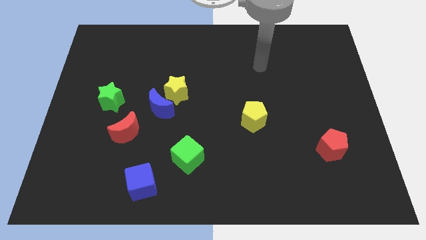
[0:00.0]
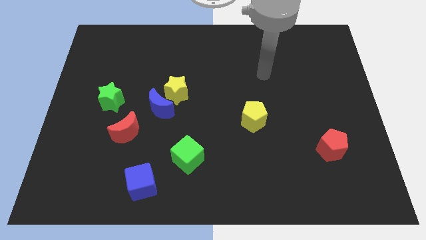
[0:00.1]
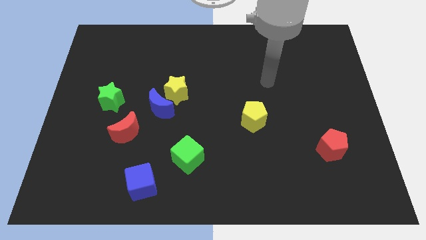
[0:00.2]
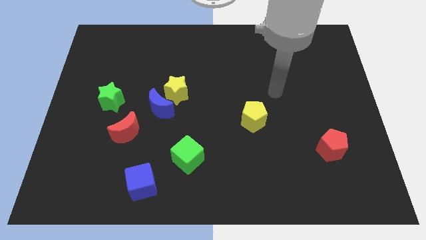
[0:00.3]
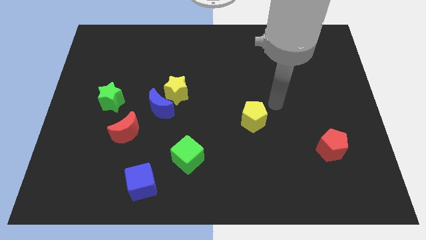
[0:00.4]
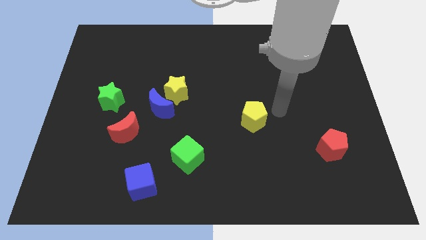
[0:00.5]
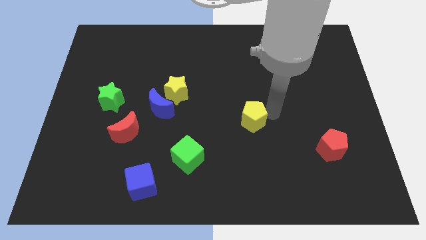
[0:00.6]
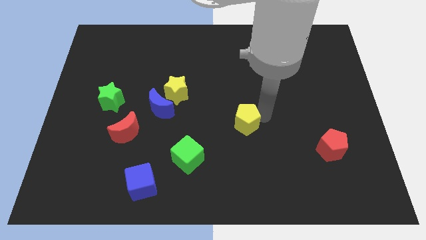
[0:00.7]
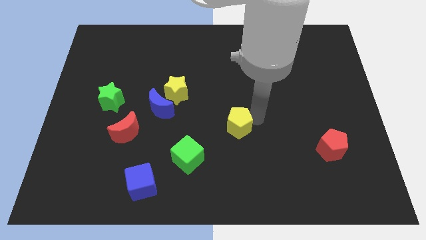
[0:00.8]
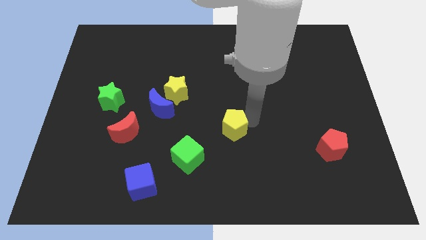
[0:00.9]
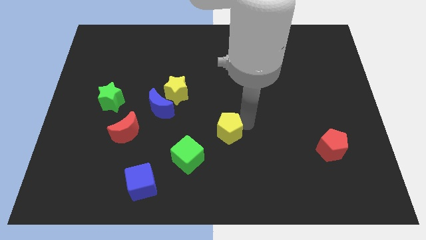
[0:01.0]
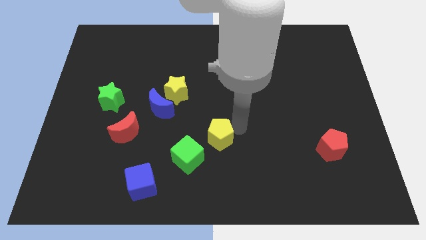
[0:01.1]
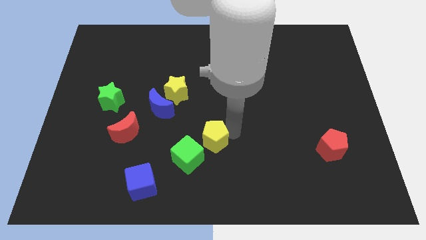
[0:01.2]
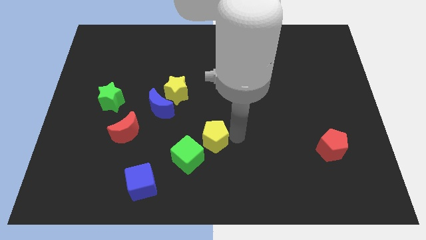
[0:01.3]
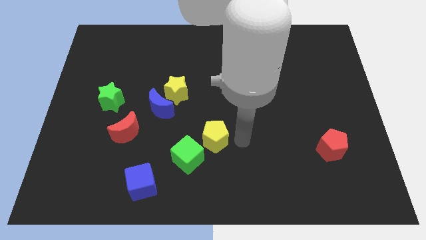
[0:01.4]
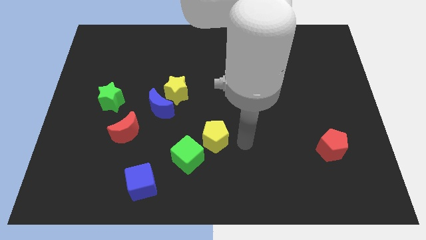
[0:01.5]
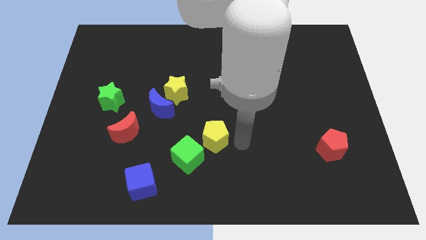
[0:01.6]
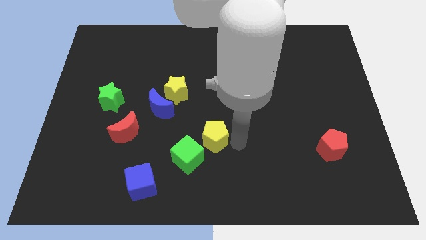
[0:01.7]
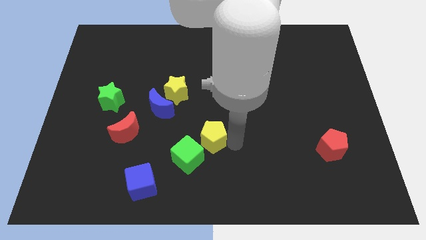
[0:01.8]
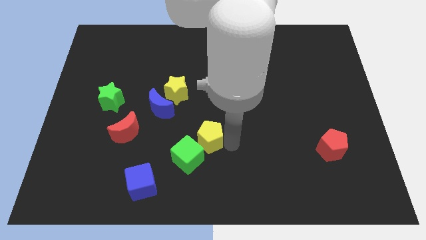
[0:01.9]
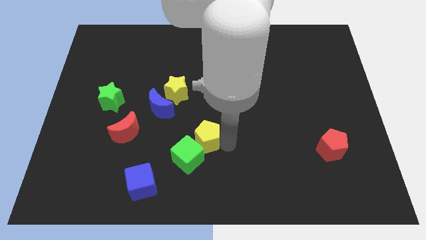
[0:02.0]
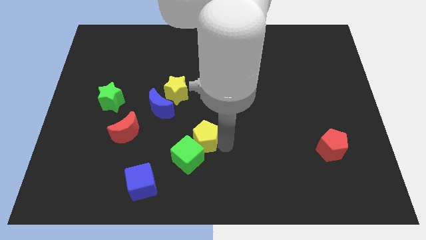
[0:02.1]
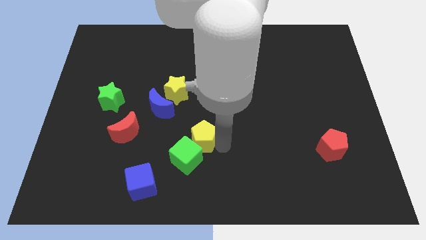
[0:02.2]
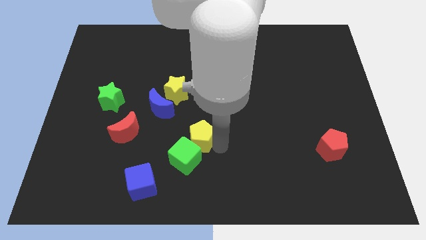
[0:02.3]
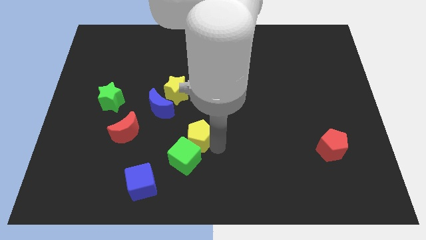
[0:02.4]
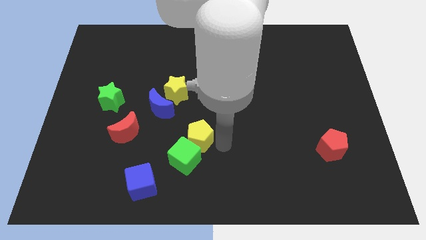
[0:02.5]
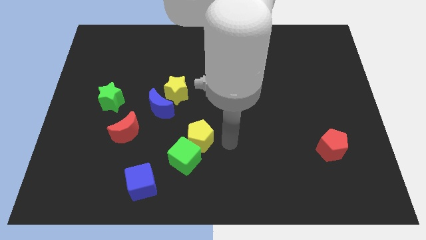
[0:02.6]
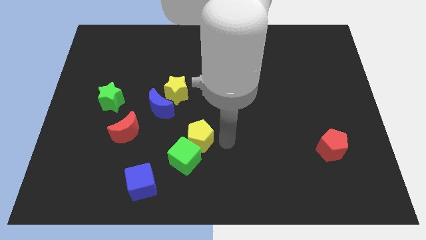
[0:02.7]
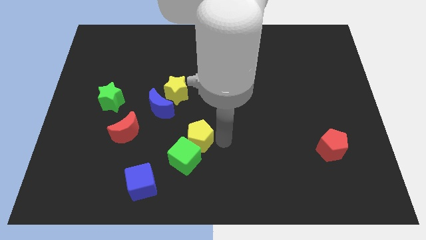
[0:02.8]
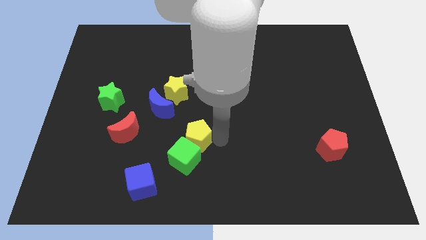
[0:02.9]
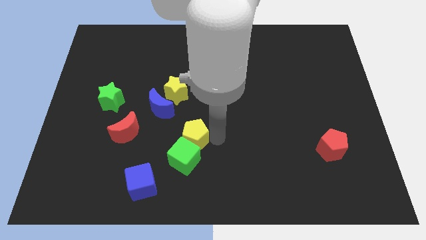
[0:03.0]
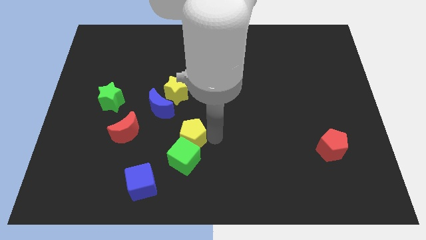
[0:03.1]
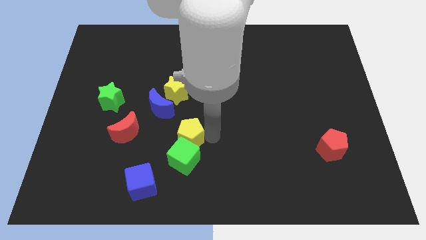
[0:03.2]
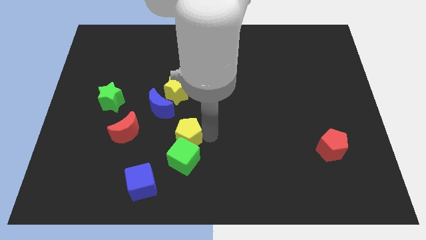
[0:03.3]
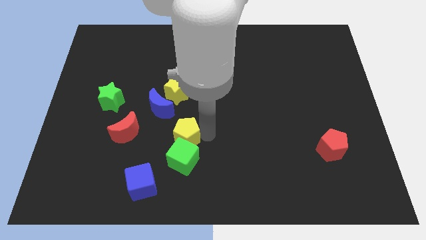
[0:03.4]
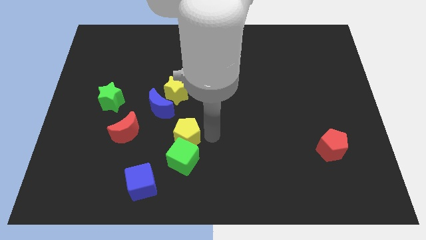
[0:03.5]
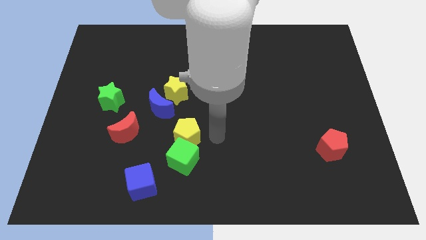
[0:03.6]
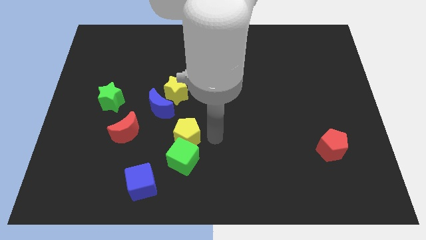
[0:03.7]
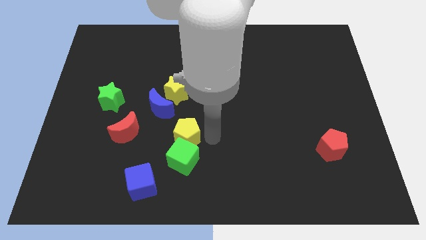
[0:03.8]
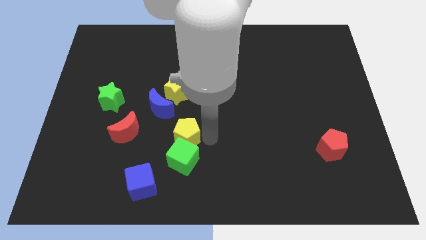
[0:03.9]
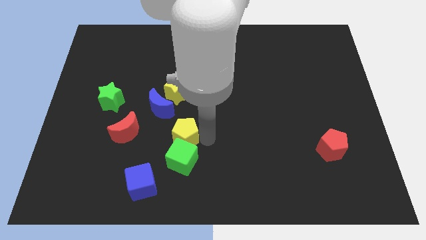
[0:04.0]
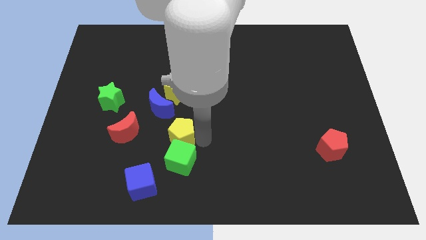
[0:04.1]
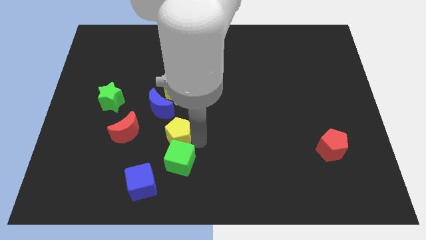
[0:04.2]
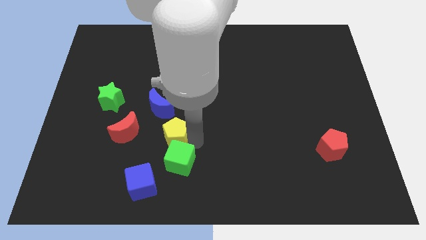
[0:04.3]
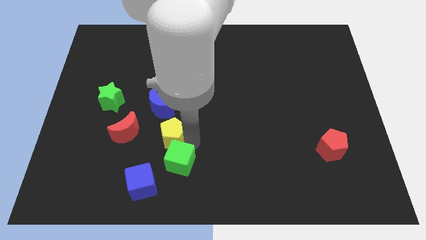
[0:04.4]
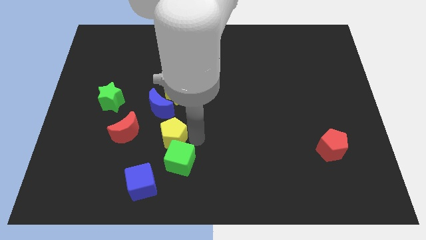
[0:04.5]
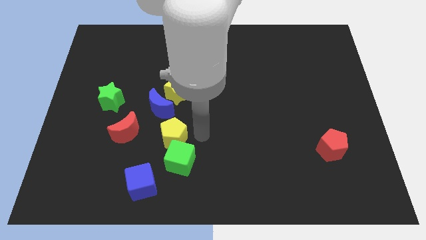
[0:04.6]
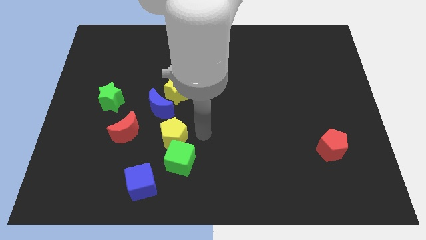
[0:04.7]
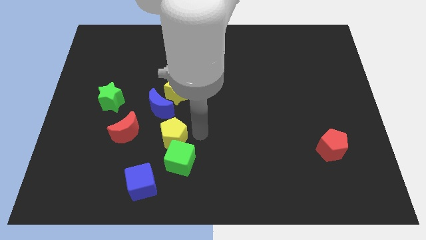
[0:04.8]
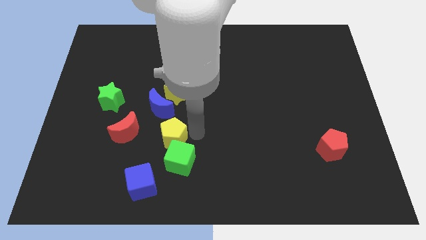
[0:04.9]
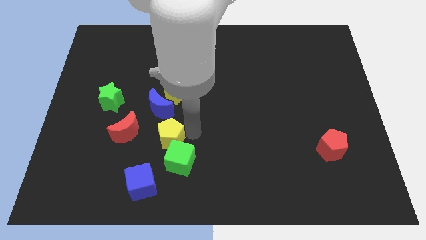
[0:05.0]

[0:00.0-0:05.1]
push the yellow pentagon to the top side of the blue cube

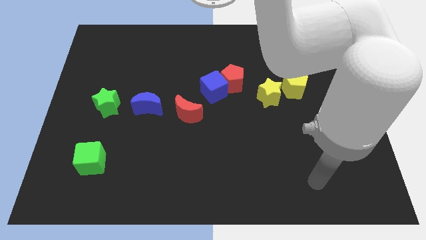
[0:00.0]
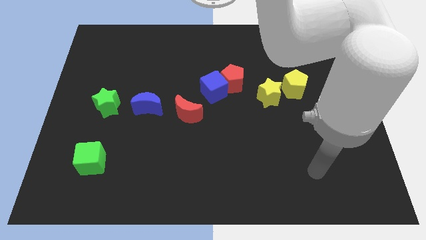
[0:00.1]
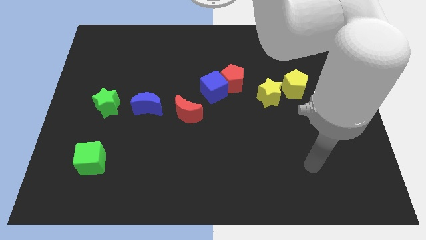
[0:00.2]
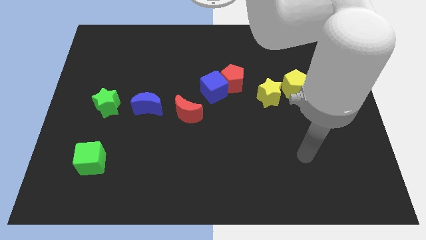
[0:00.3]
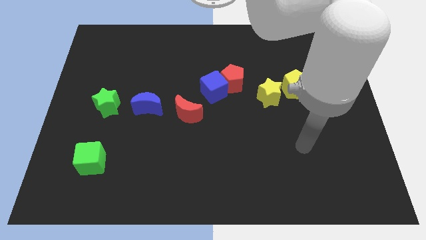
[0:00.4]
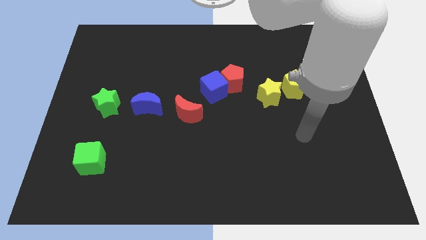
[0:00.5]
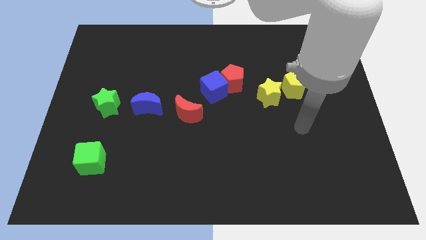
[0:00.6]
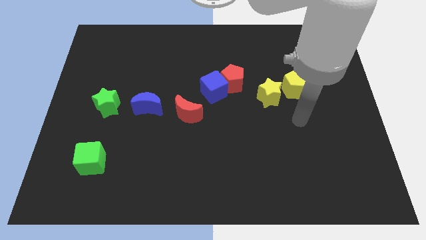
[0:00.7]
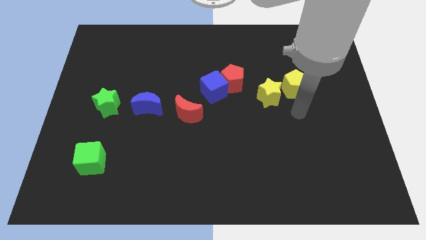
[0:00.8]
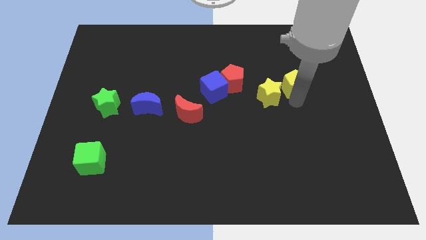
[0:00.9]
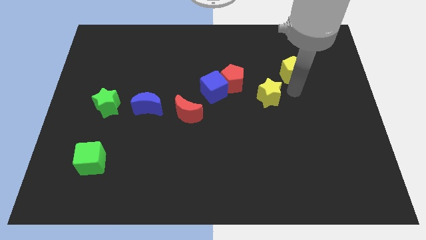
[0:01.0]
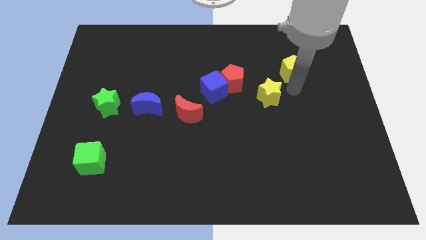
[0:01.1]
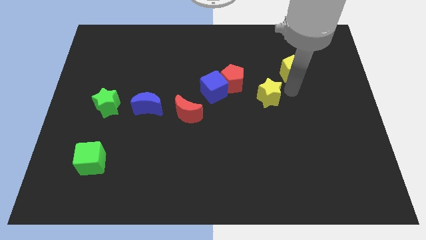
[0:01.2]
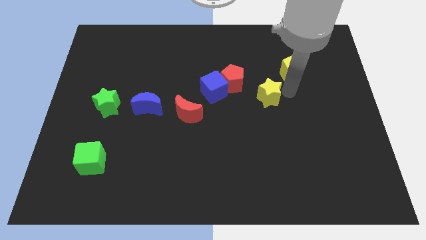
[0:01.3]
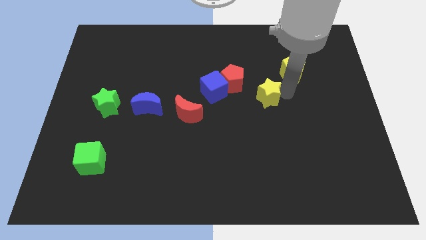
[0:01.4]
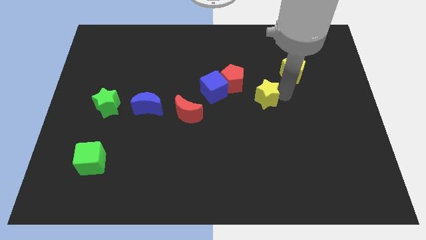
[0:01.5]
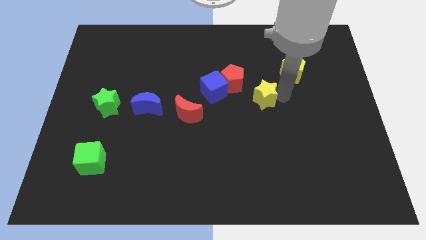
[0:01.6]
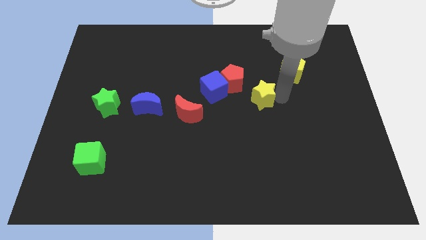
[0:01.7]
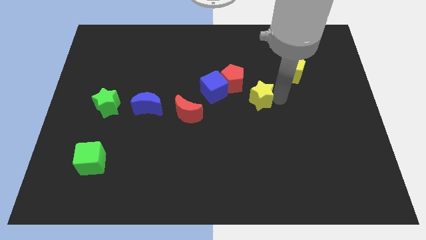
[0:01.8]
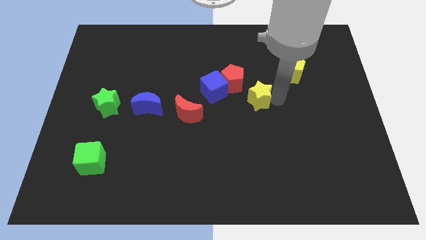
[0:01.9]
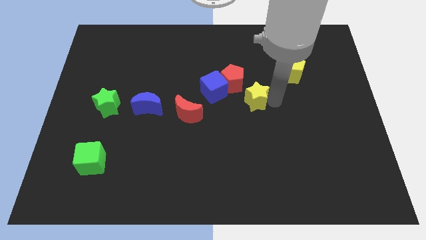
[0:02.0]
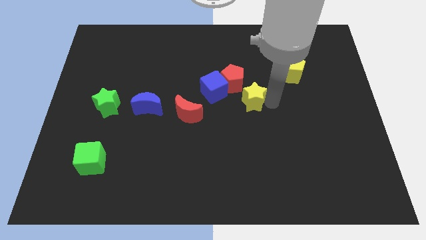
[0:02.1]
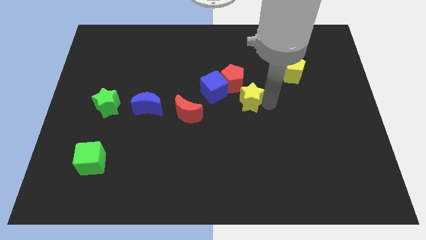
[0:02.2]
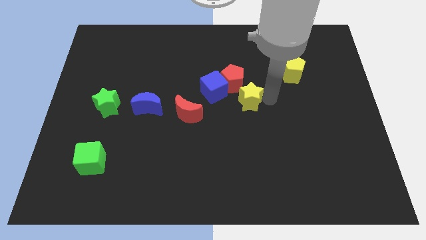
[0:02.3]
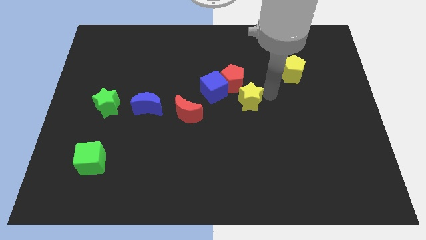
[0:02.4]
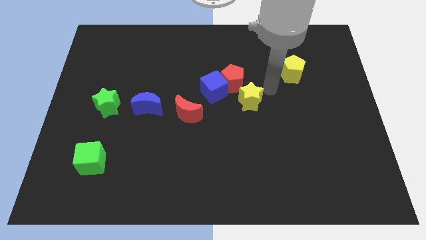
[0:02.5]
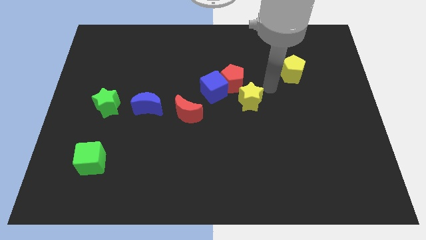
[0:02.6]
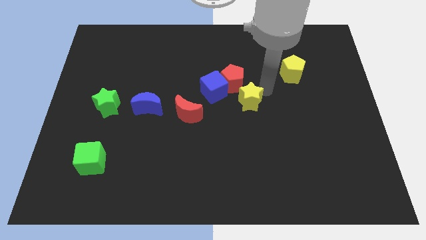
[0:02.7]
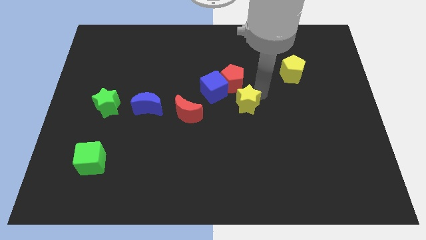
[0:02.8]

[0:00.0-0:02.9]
slide the yellow star to the right of the red moon
